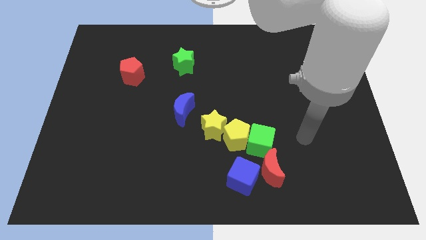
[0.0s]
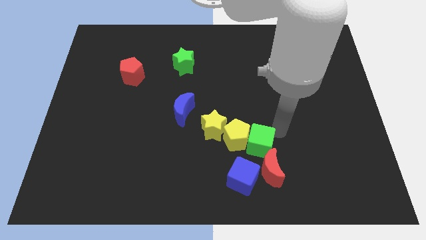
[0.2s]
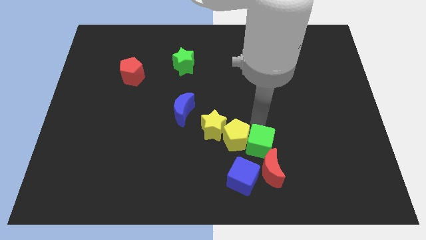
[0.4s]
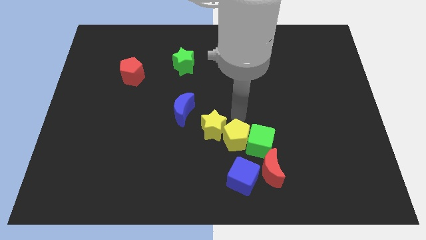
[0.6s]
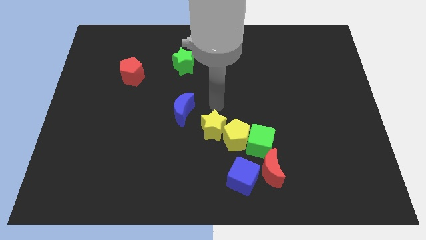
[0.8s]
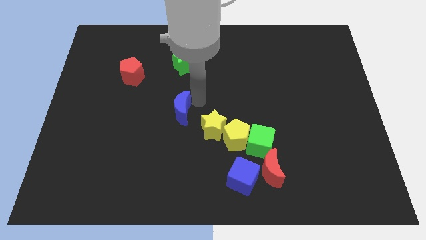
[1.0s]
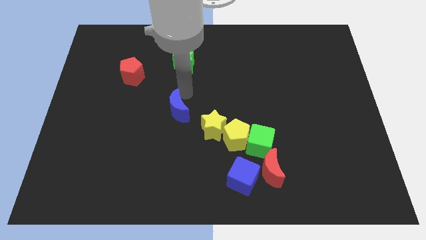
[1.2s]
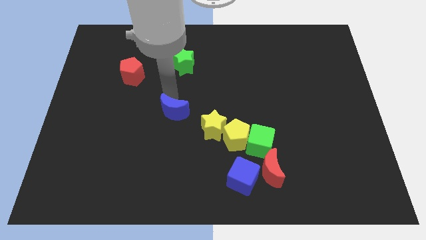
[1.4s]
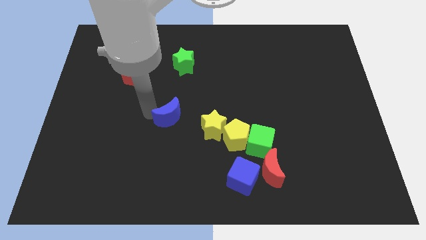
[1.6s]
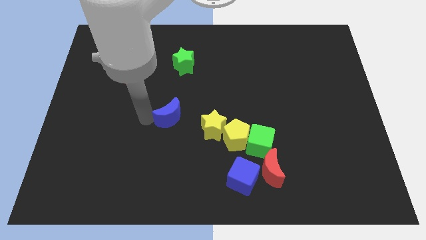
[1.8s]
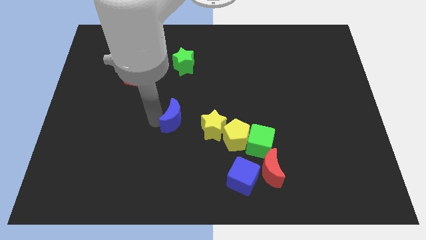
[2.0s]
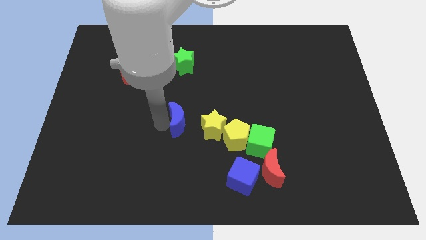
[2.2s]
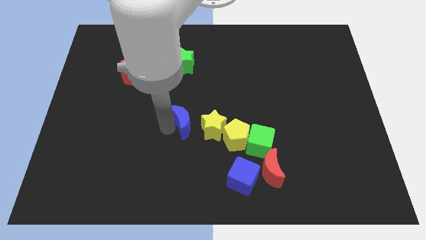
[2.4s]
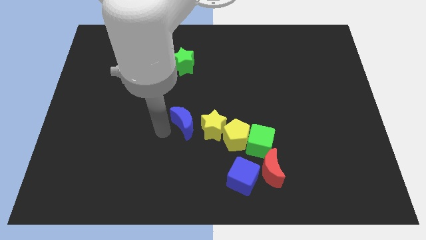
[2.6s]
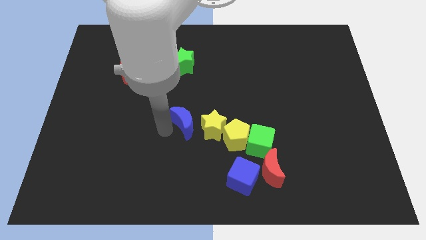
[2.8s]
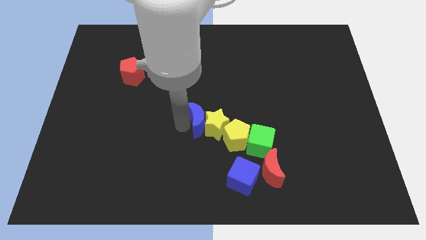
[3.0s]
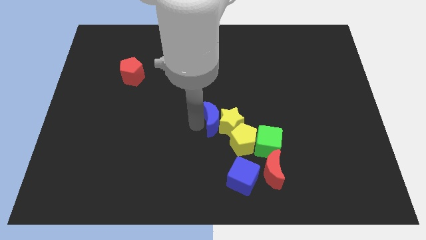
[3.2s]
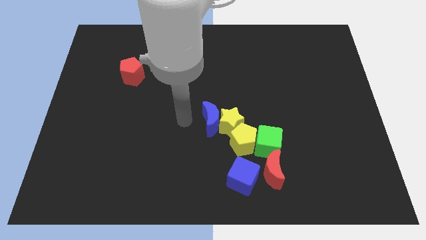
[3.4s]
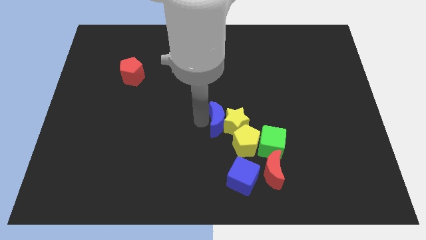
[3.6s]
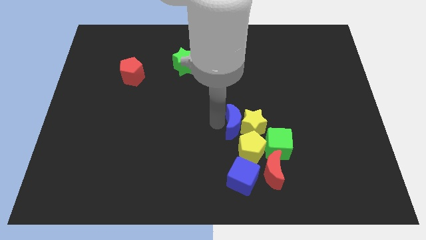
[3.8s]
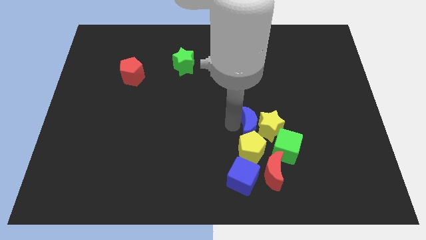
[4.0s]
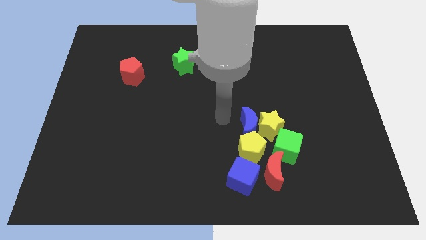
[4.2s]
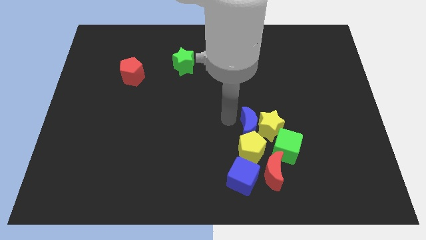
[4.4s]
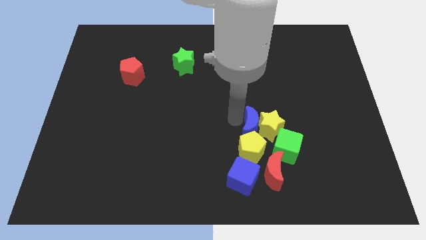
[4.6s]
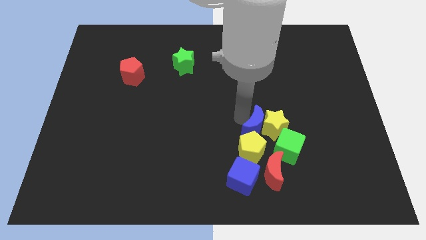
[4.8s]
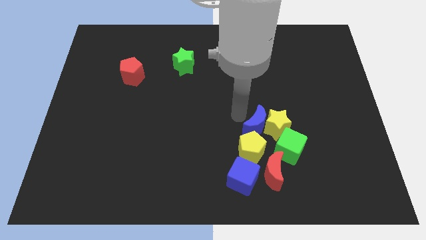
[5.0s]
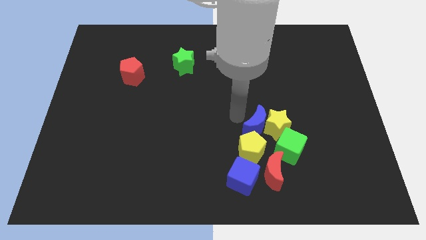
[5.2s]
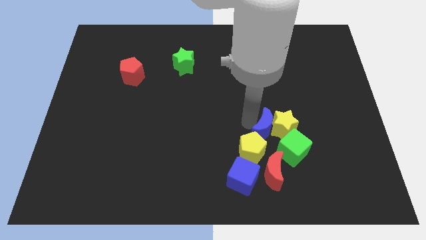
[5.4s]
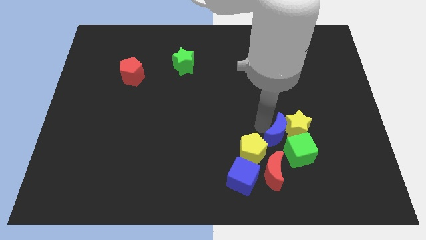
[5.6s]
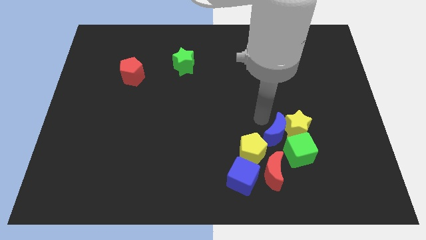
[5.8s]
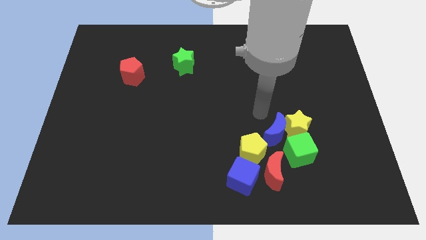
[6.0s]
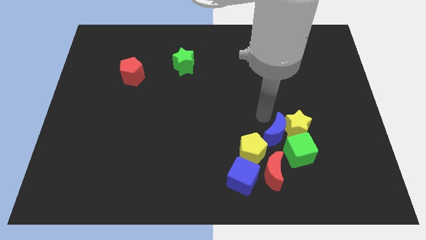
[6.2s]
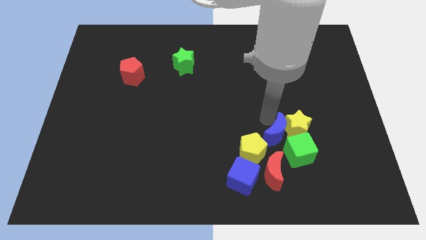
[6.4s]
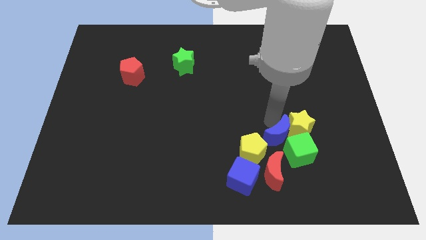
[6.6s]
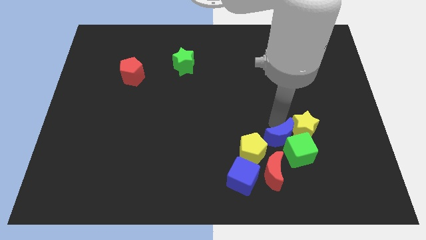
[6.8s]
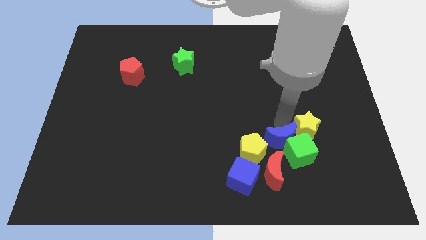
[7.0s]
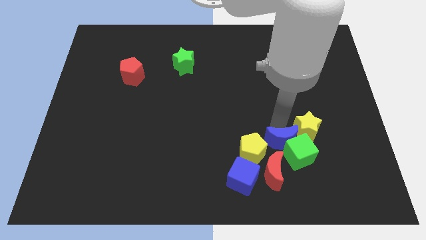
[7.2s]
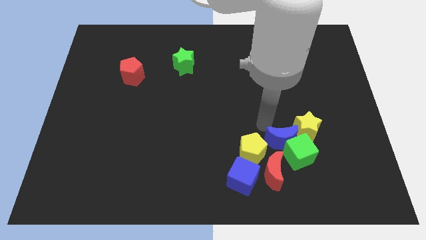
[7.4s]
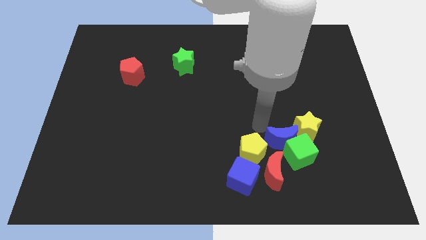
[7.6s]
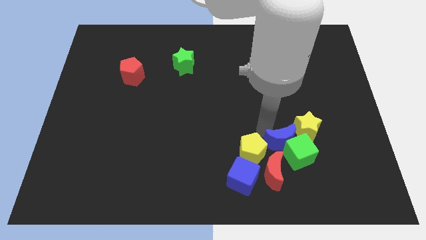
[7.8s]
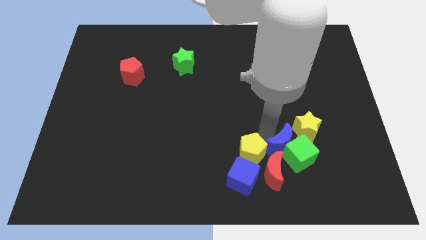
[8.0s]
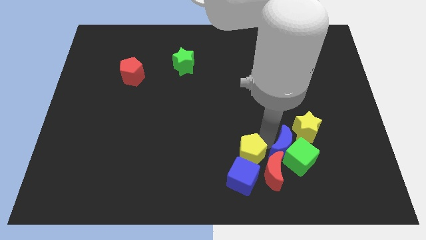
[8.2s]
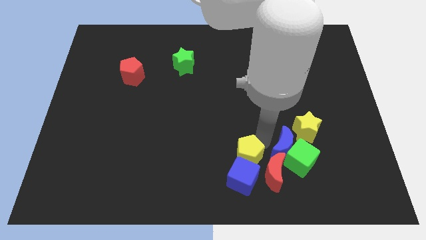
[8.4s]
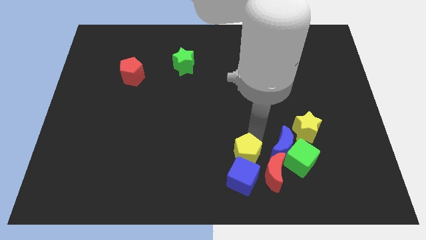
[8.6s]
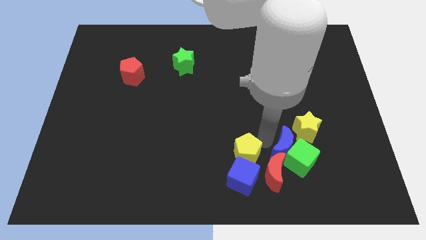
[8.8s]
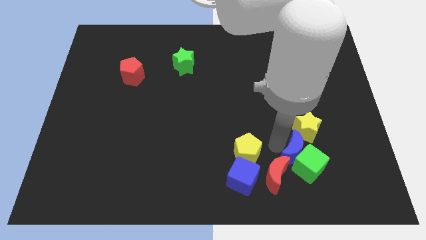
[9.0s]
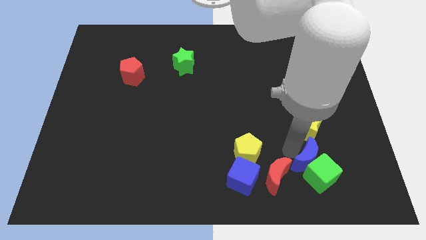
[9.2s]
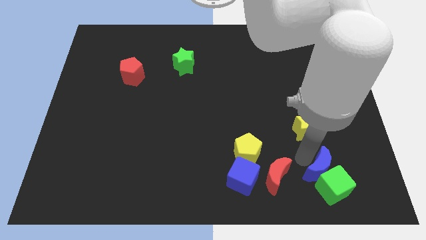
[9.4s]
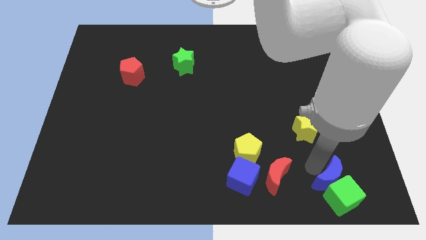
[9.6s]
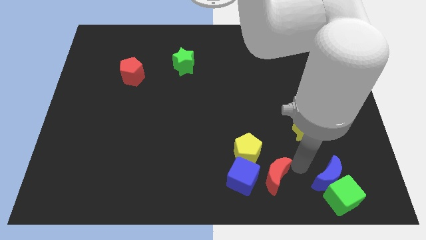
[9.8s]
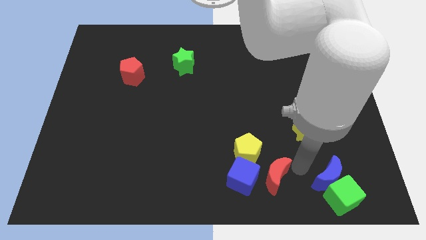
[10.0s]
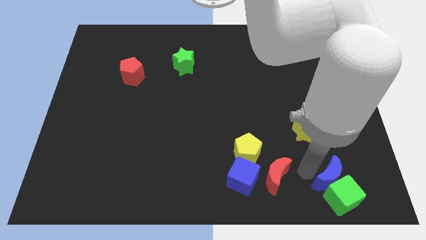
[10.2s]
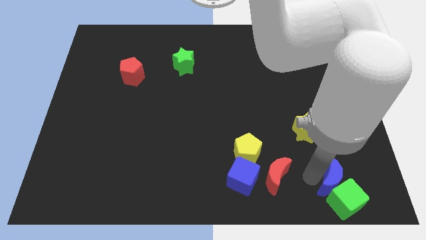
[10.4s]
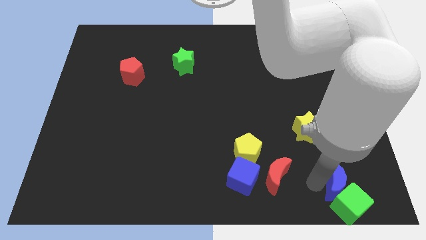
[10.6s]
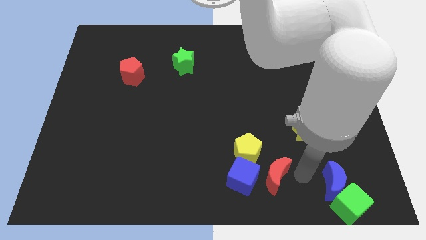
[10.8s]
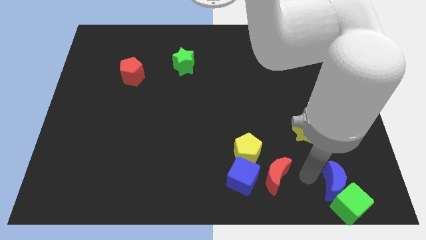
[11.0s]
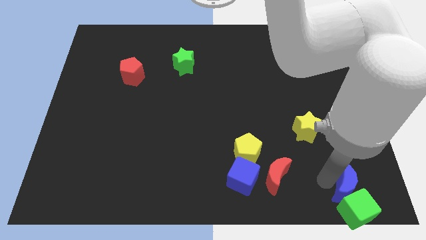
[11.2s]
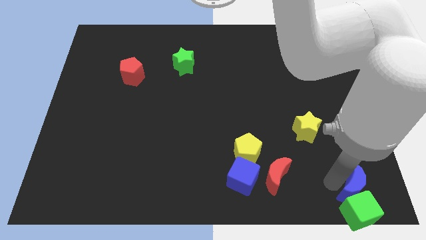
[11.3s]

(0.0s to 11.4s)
slide the blue moon to the bottom right

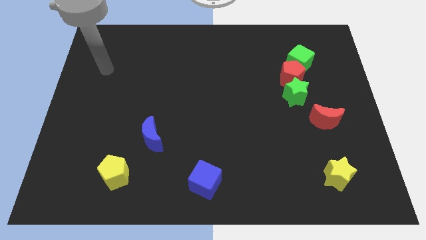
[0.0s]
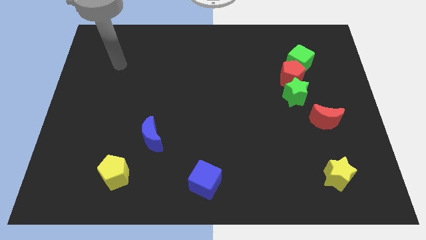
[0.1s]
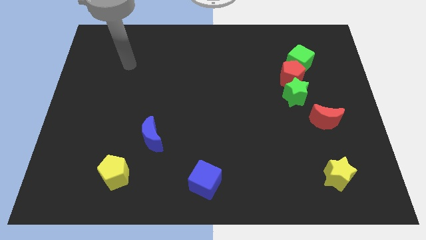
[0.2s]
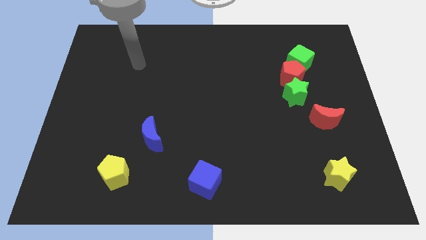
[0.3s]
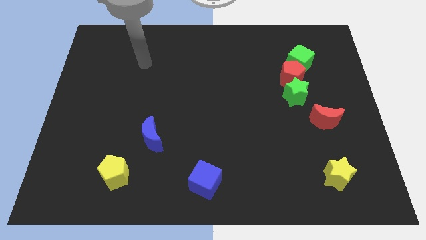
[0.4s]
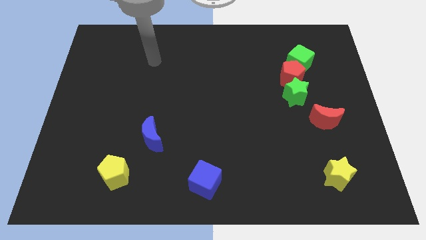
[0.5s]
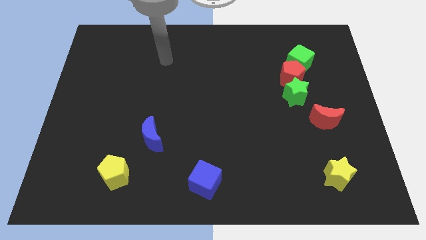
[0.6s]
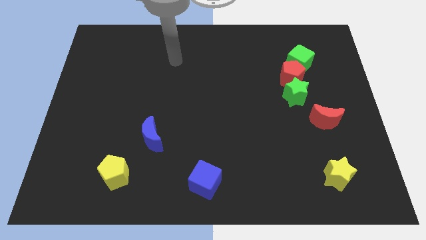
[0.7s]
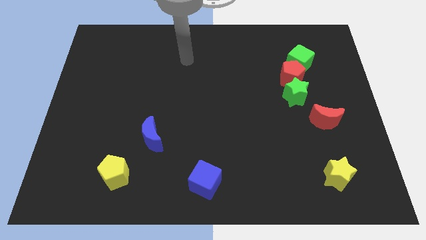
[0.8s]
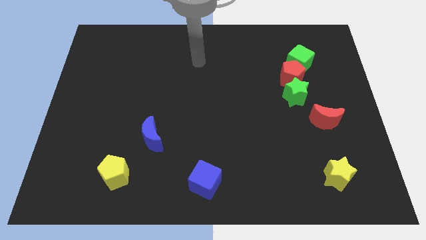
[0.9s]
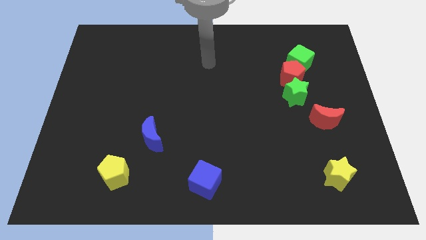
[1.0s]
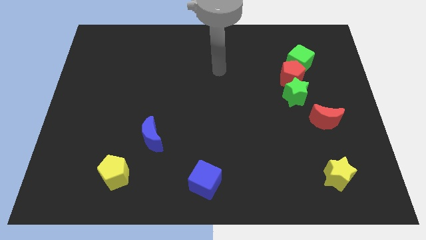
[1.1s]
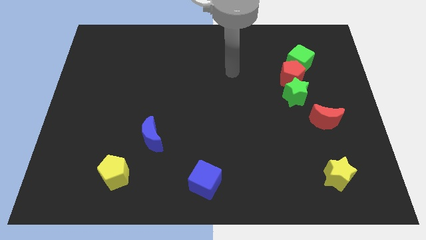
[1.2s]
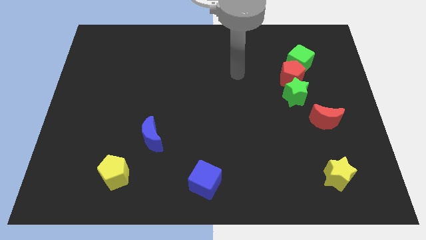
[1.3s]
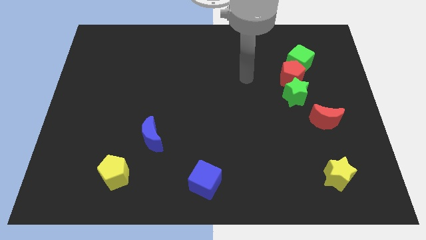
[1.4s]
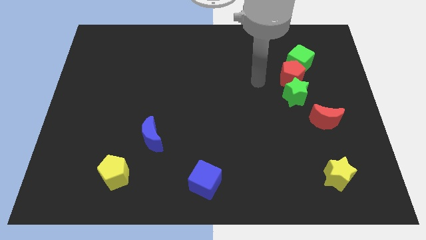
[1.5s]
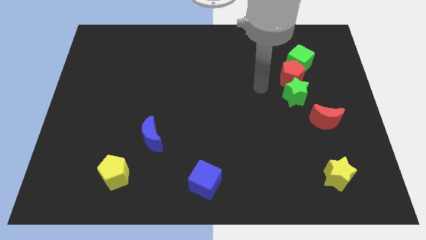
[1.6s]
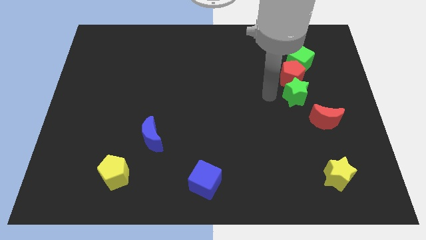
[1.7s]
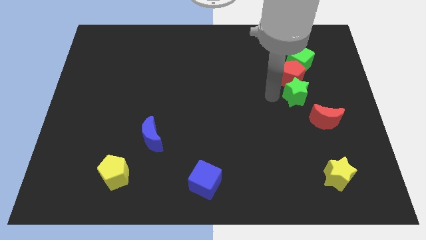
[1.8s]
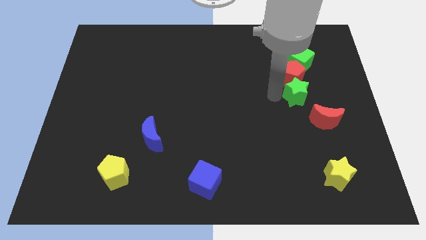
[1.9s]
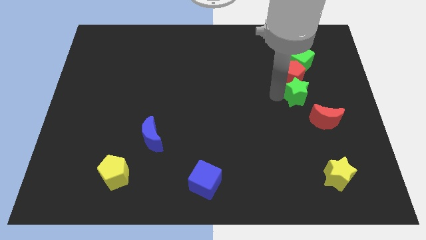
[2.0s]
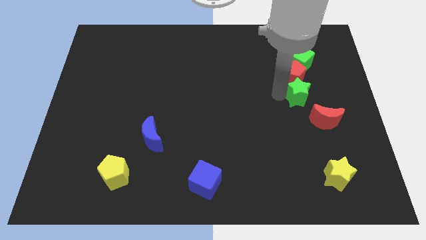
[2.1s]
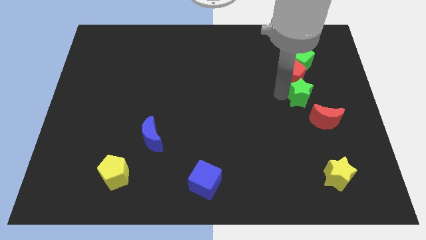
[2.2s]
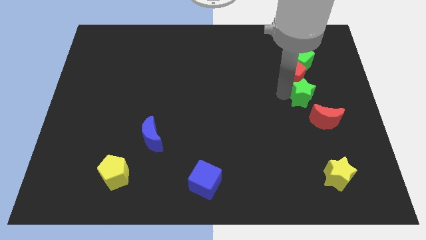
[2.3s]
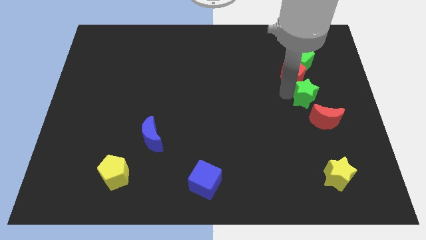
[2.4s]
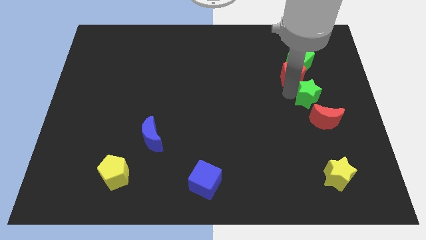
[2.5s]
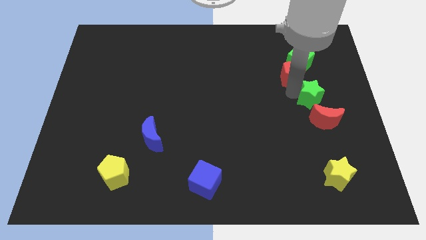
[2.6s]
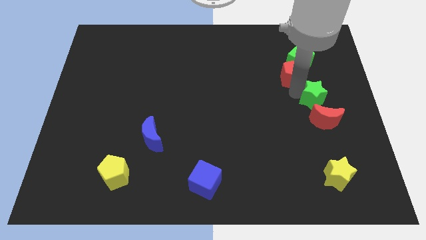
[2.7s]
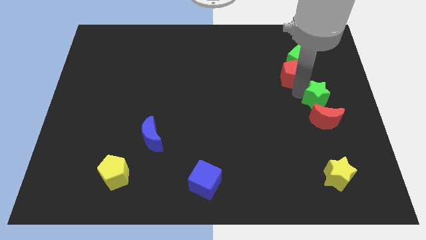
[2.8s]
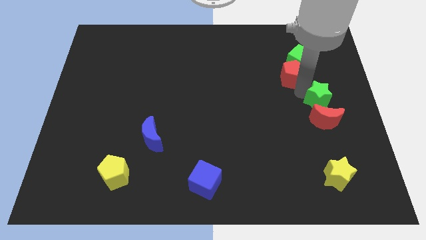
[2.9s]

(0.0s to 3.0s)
slide the green star to the right side of the board
